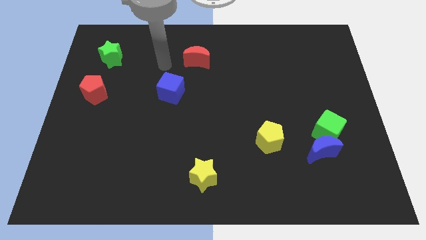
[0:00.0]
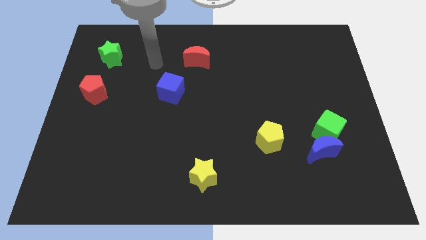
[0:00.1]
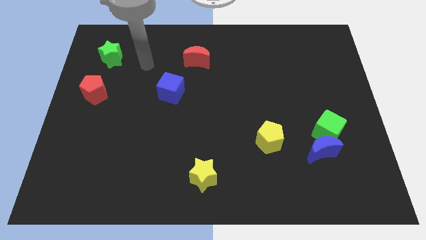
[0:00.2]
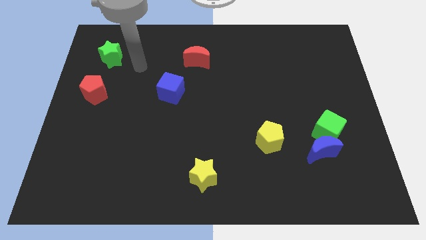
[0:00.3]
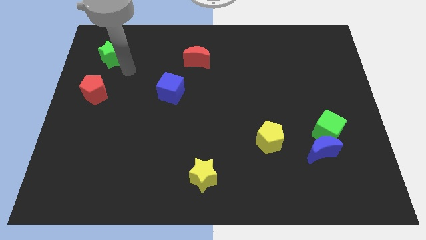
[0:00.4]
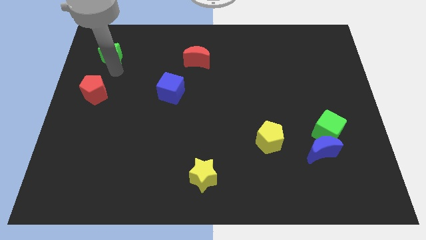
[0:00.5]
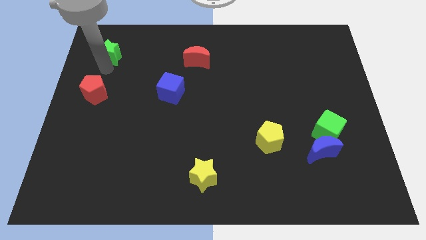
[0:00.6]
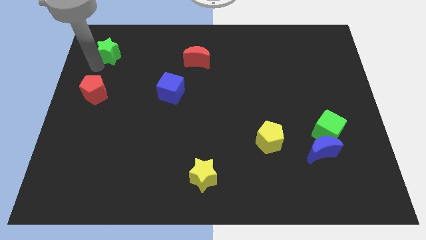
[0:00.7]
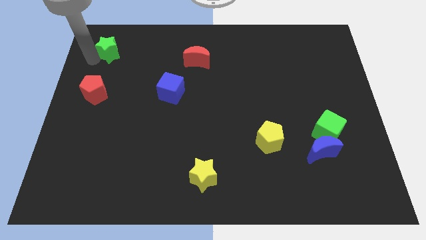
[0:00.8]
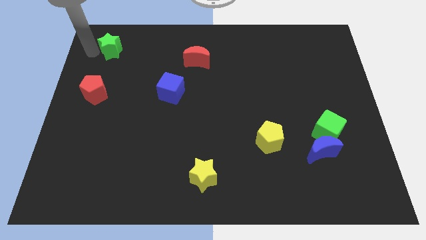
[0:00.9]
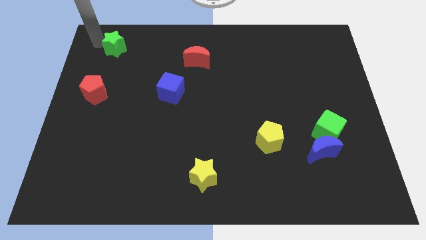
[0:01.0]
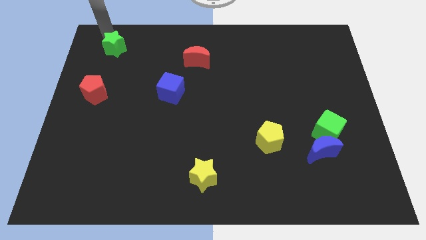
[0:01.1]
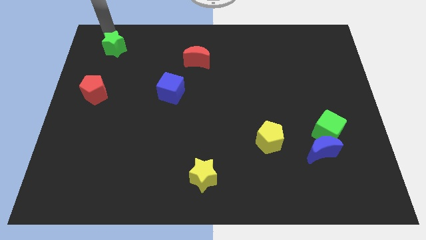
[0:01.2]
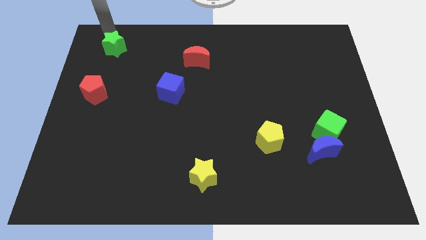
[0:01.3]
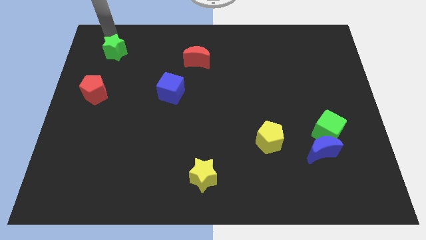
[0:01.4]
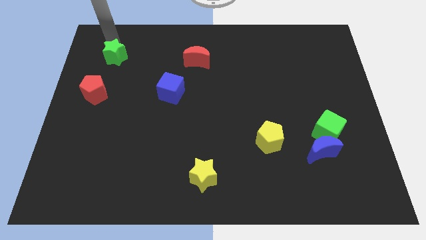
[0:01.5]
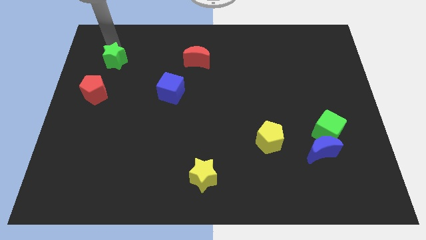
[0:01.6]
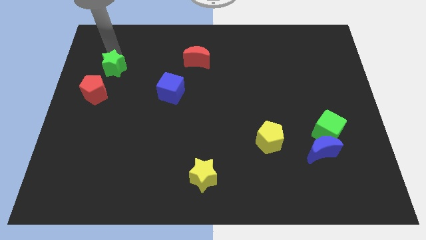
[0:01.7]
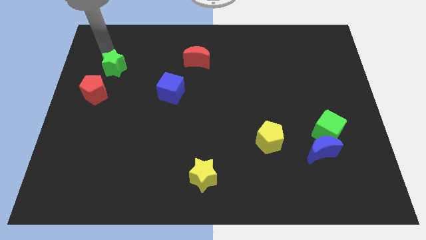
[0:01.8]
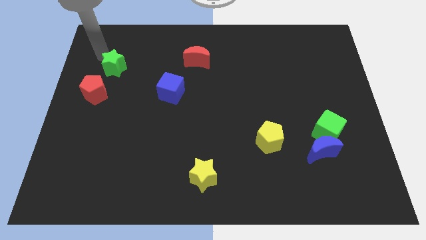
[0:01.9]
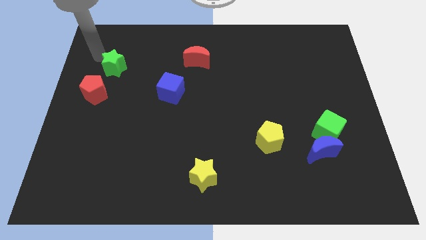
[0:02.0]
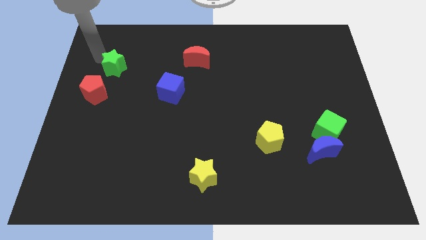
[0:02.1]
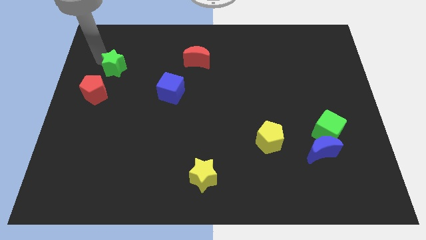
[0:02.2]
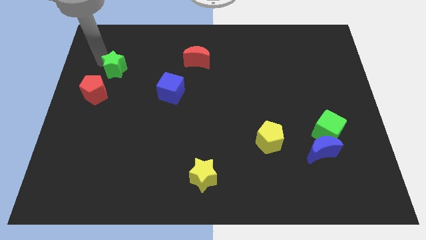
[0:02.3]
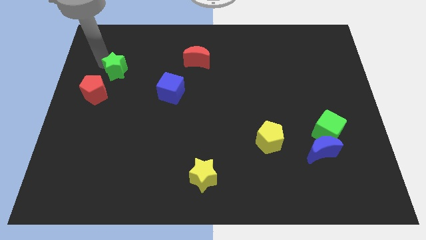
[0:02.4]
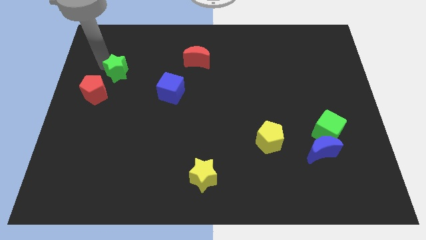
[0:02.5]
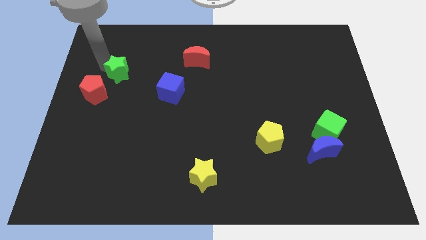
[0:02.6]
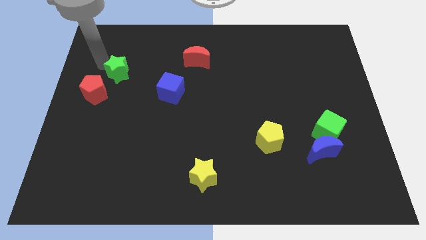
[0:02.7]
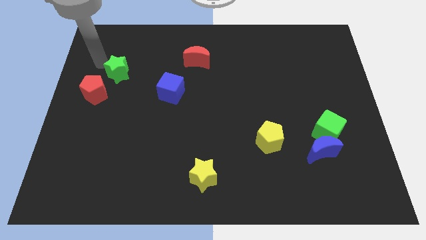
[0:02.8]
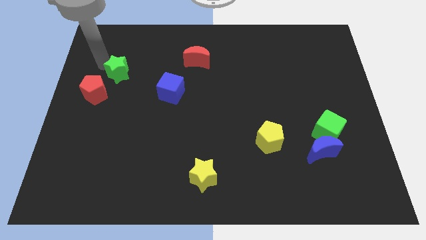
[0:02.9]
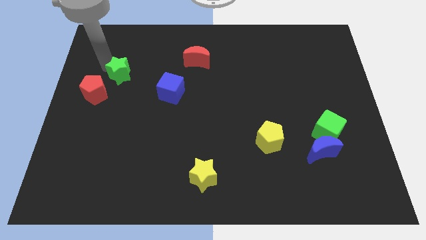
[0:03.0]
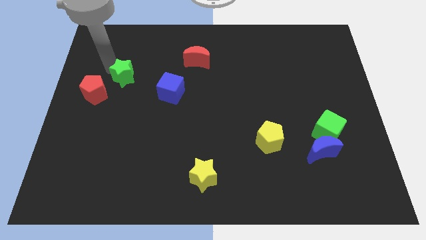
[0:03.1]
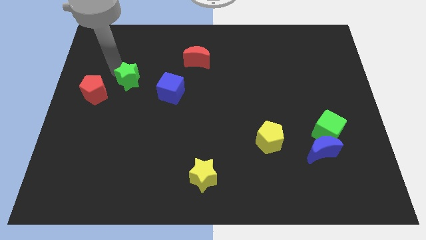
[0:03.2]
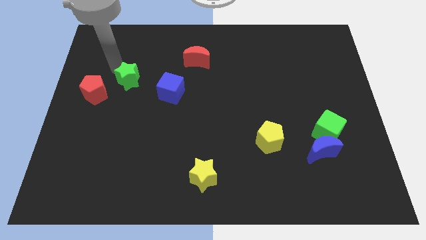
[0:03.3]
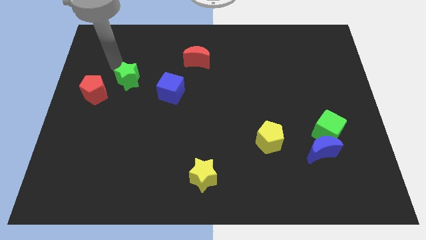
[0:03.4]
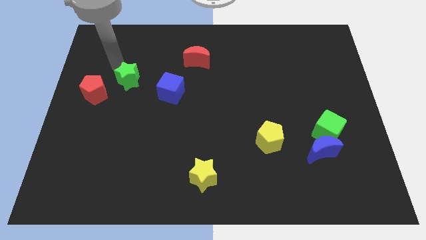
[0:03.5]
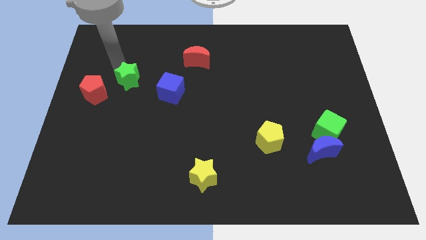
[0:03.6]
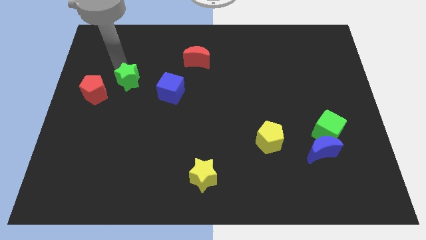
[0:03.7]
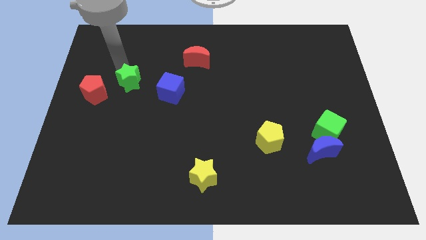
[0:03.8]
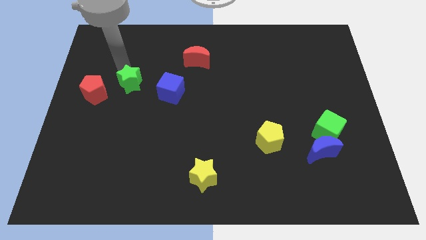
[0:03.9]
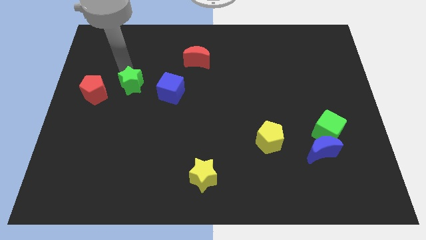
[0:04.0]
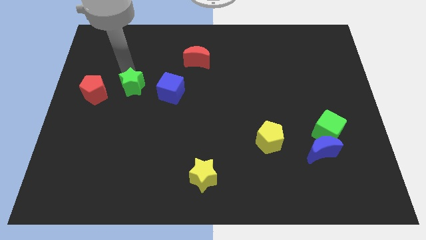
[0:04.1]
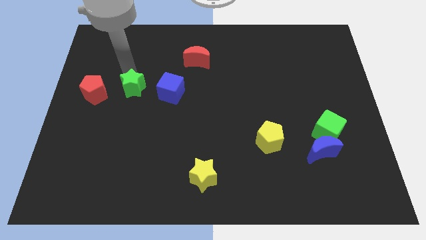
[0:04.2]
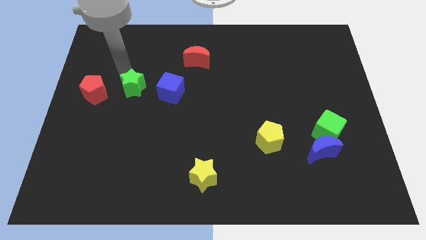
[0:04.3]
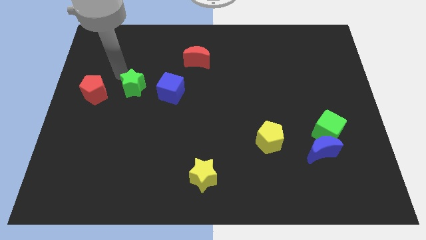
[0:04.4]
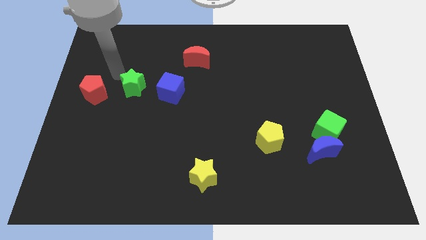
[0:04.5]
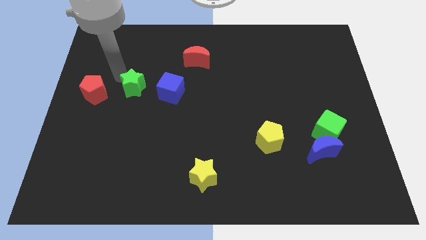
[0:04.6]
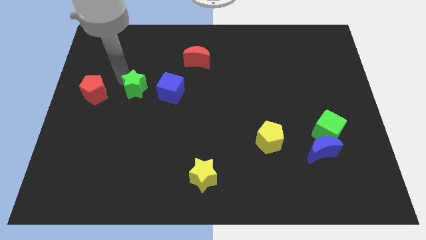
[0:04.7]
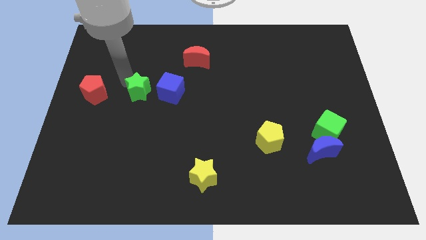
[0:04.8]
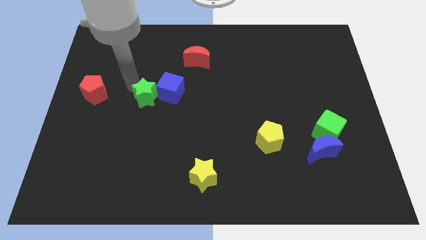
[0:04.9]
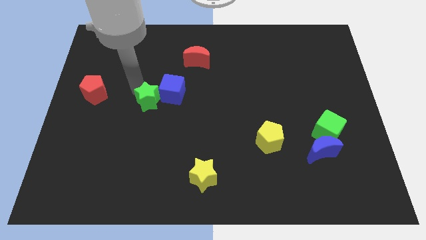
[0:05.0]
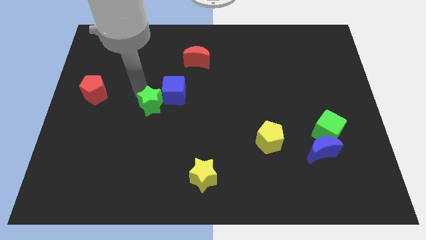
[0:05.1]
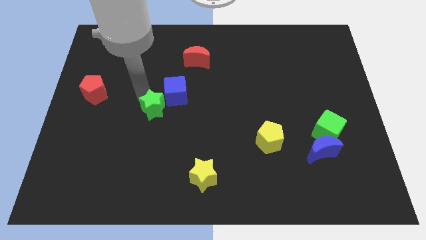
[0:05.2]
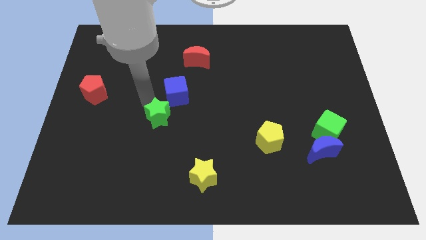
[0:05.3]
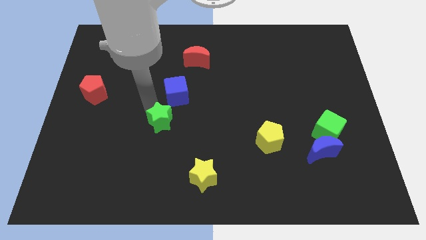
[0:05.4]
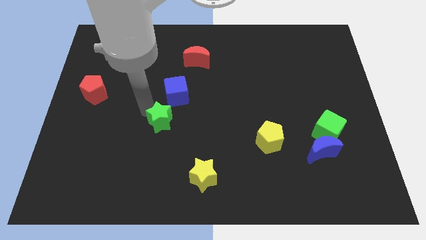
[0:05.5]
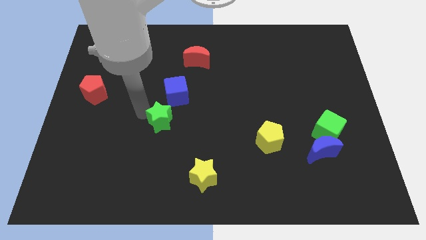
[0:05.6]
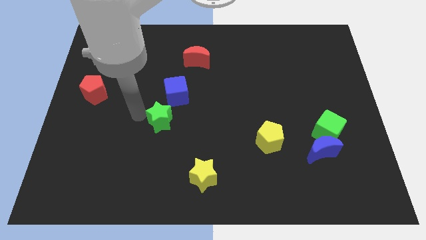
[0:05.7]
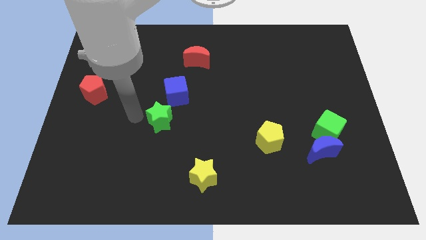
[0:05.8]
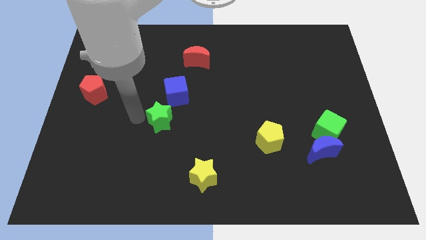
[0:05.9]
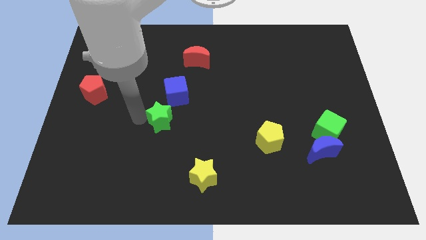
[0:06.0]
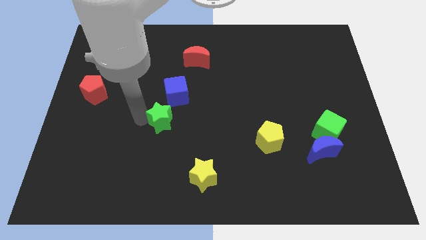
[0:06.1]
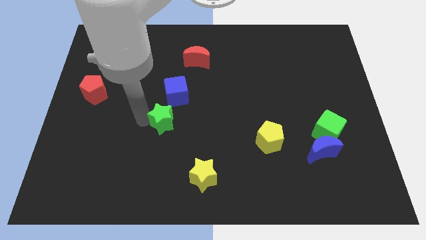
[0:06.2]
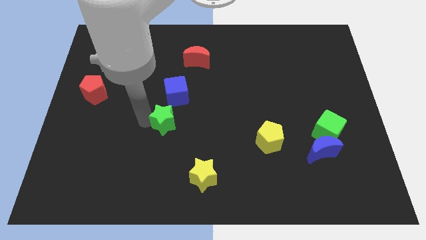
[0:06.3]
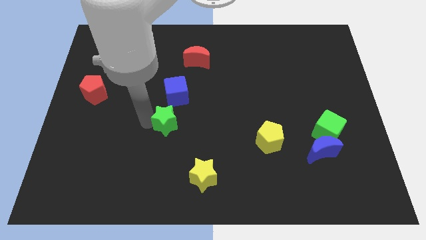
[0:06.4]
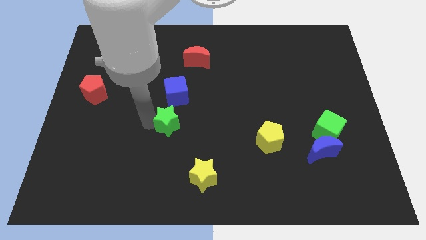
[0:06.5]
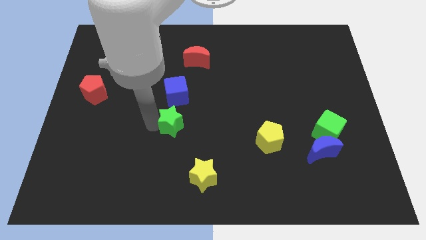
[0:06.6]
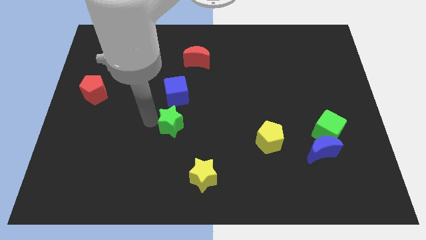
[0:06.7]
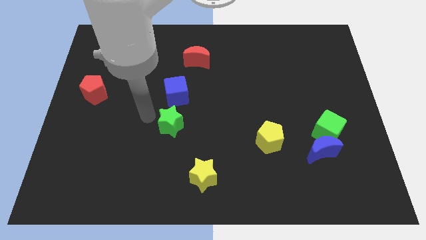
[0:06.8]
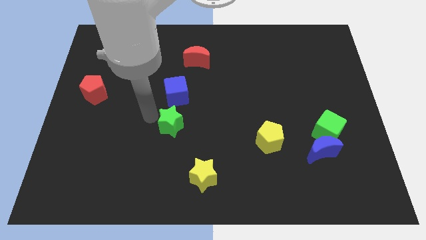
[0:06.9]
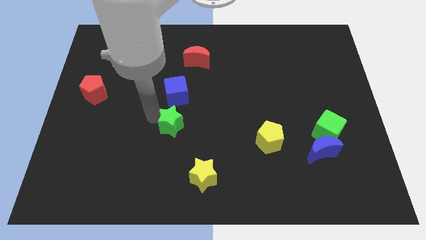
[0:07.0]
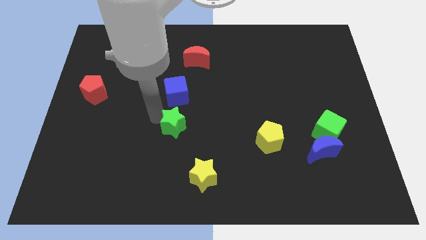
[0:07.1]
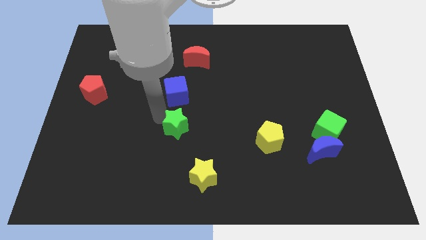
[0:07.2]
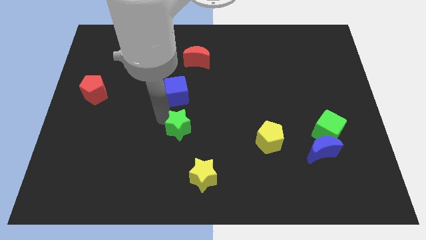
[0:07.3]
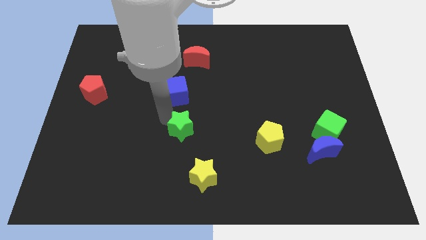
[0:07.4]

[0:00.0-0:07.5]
push the green star above the yellow star
